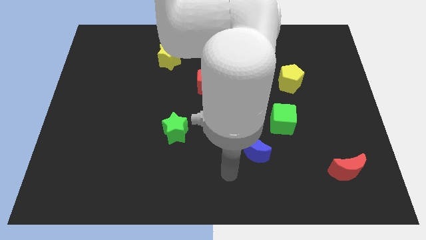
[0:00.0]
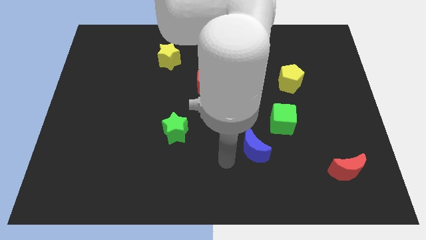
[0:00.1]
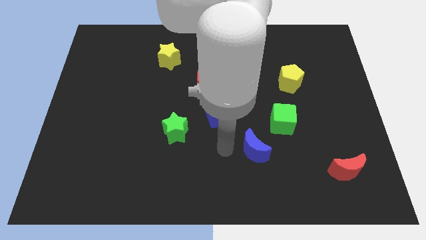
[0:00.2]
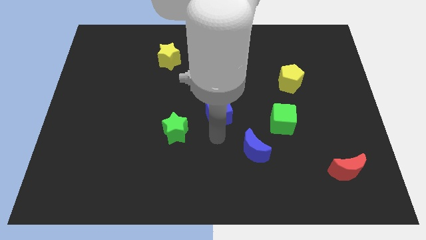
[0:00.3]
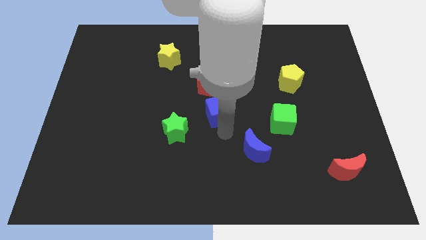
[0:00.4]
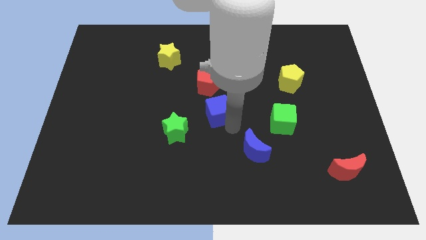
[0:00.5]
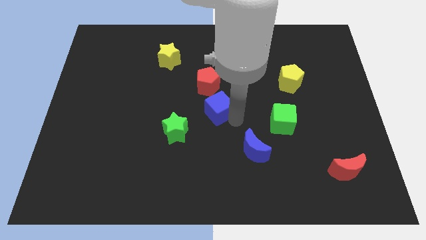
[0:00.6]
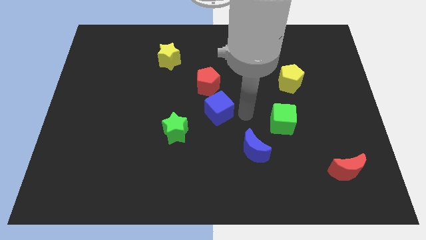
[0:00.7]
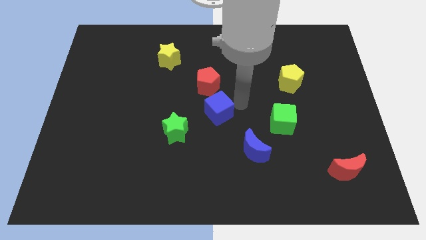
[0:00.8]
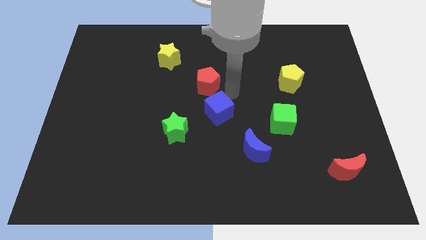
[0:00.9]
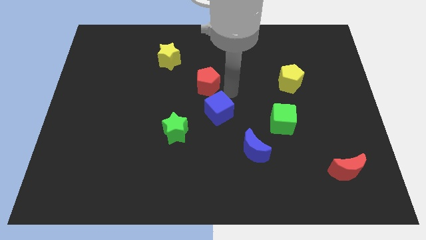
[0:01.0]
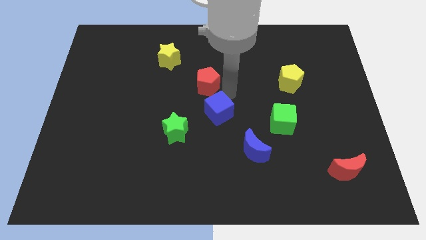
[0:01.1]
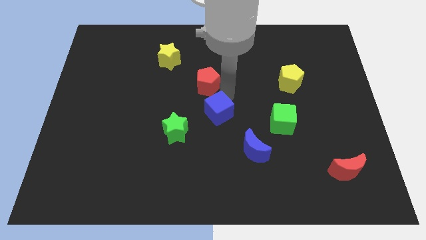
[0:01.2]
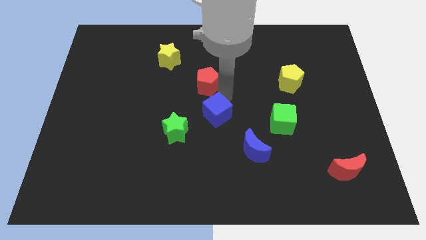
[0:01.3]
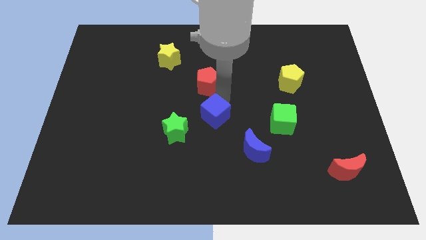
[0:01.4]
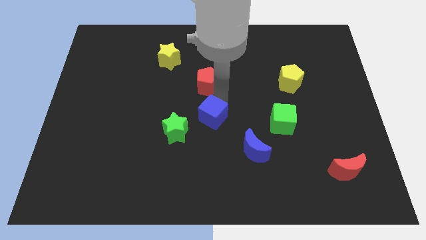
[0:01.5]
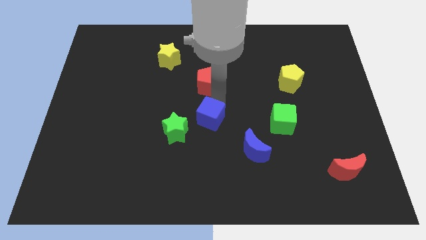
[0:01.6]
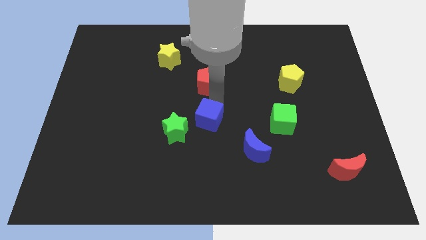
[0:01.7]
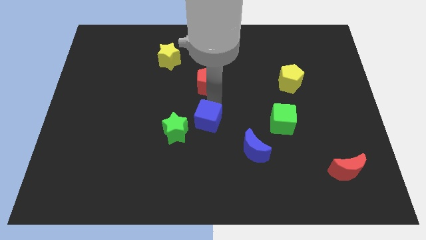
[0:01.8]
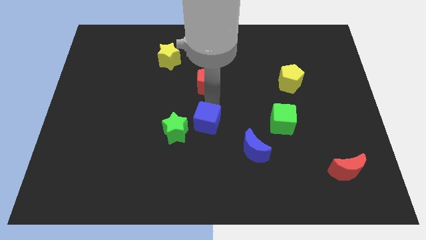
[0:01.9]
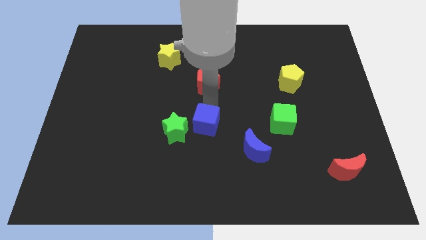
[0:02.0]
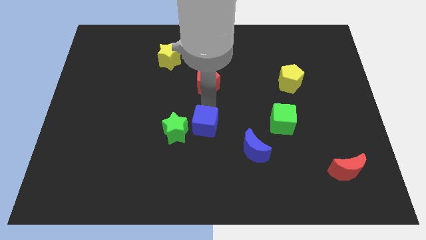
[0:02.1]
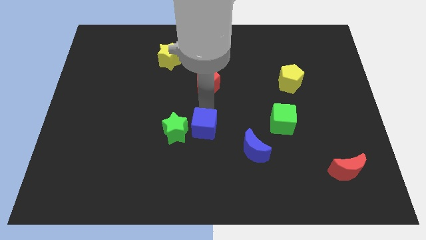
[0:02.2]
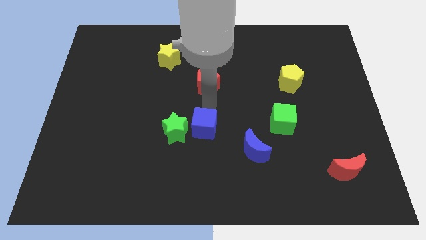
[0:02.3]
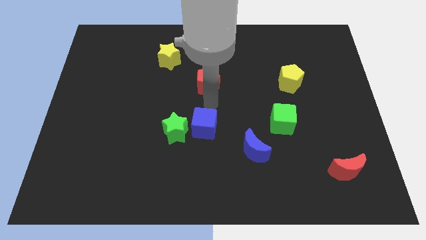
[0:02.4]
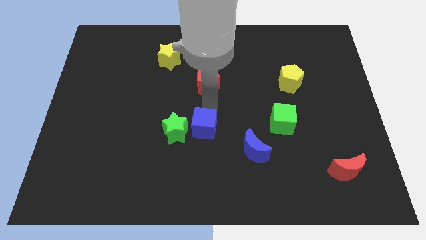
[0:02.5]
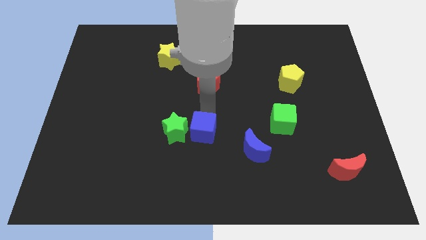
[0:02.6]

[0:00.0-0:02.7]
slide the blue cube diagonally down and to the right of the green star

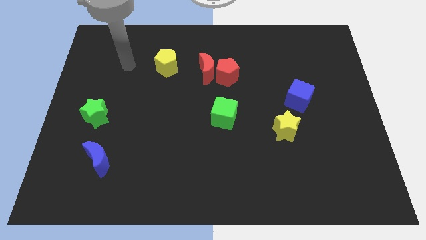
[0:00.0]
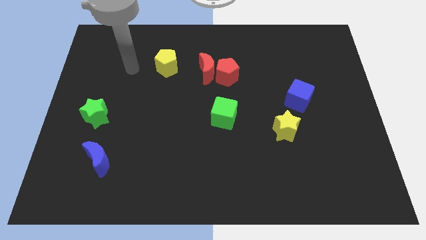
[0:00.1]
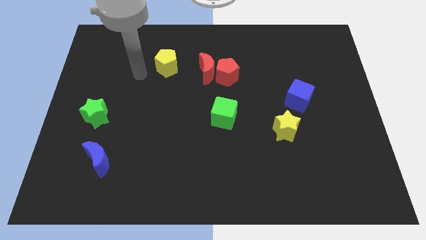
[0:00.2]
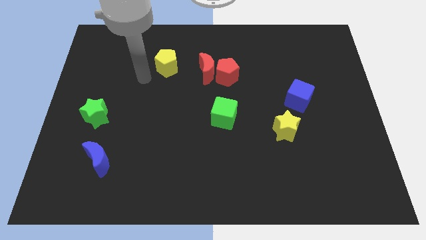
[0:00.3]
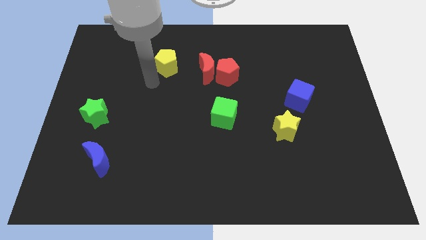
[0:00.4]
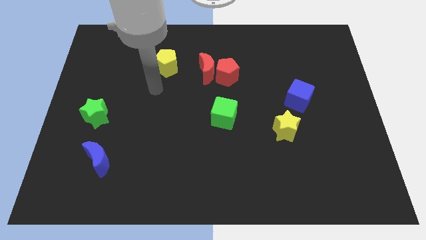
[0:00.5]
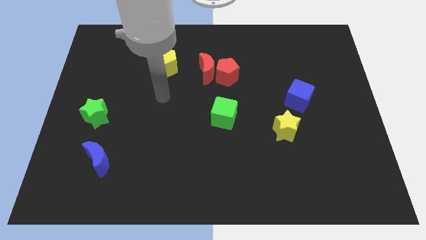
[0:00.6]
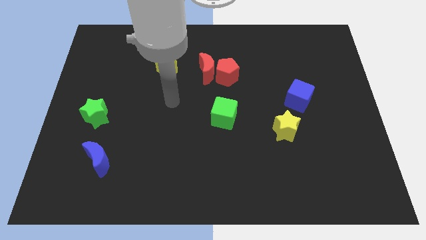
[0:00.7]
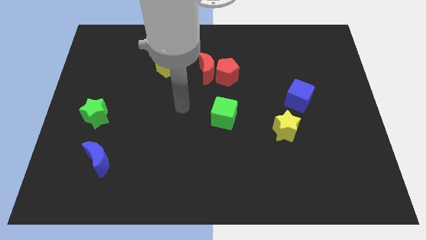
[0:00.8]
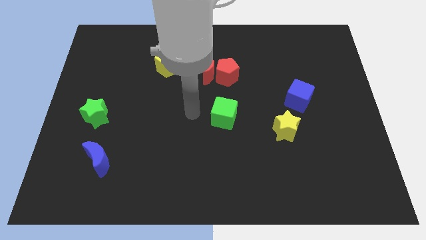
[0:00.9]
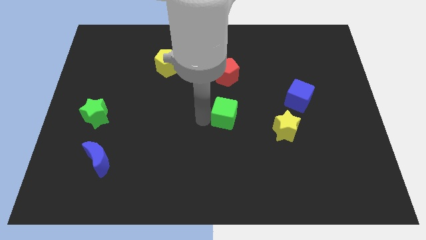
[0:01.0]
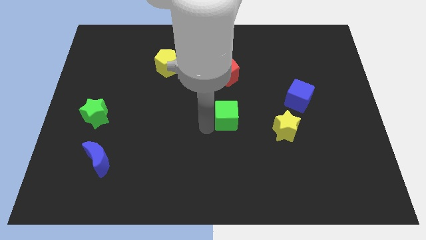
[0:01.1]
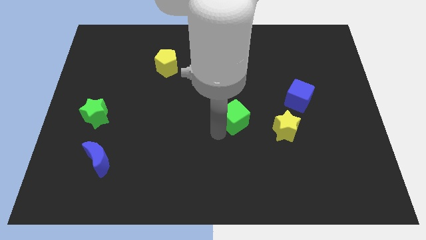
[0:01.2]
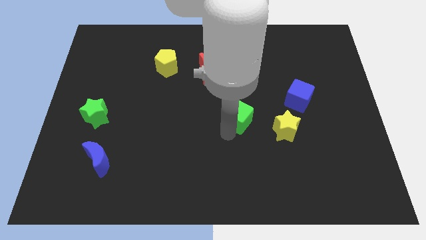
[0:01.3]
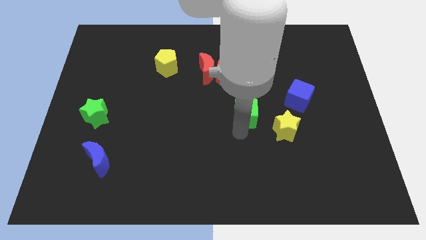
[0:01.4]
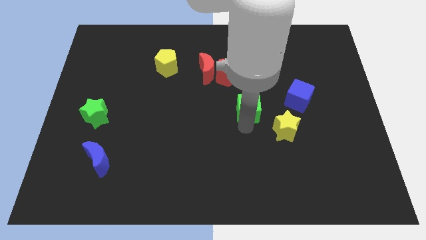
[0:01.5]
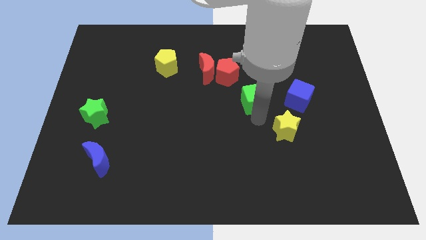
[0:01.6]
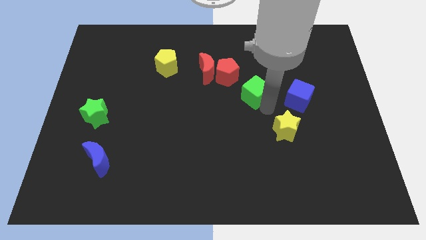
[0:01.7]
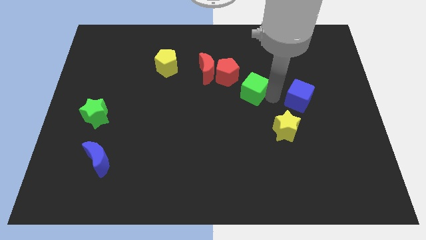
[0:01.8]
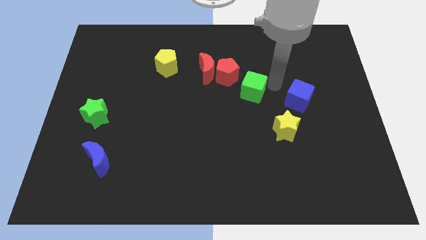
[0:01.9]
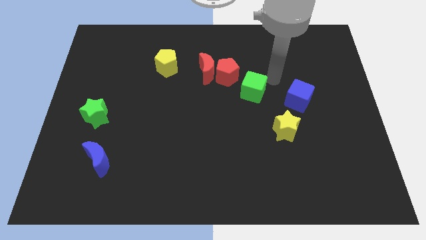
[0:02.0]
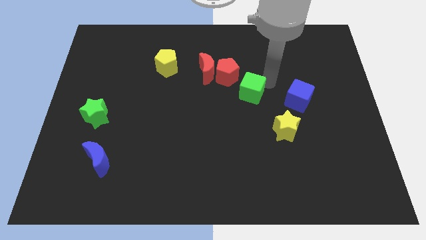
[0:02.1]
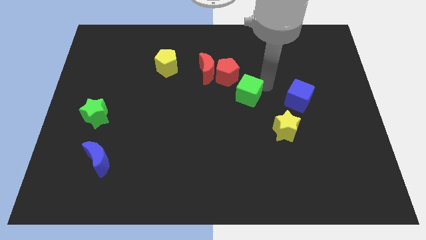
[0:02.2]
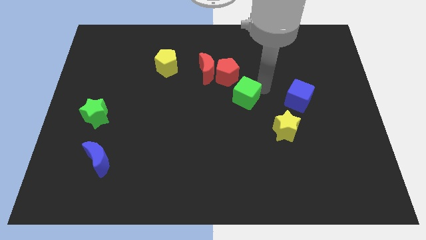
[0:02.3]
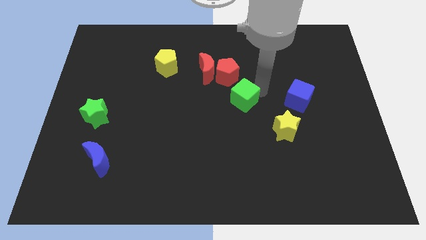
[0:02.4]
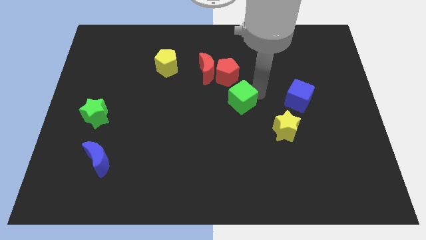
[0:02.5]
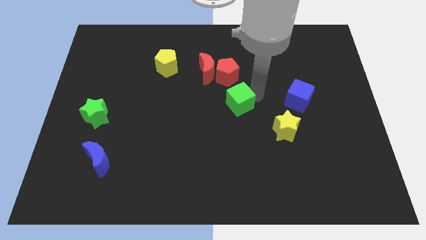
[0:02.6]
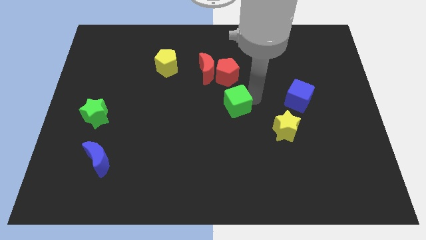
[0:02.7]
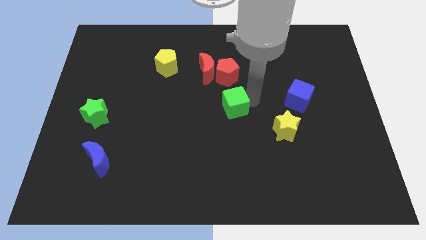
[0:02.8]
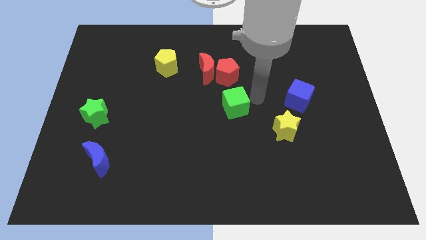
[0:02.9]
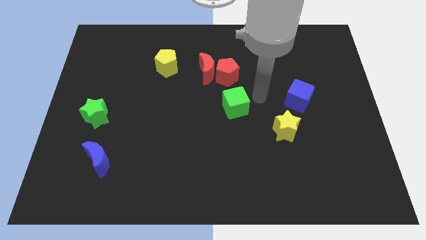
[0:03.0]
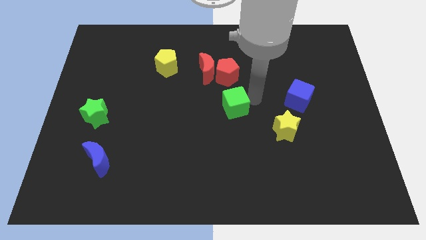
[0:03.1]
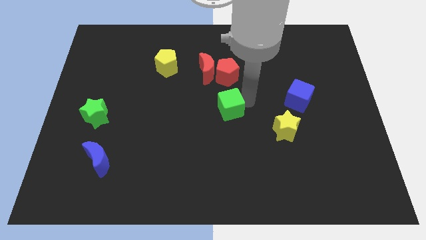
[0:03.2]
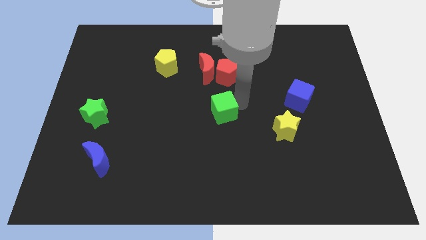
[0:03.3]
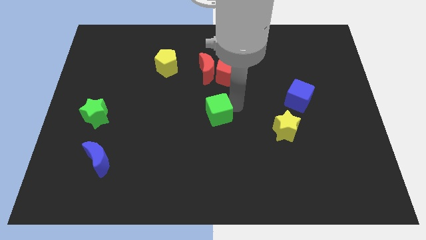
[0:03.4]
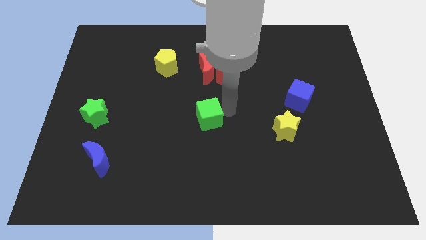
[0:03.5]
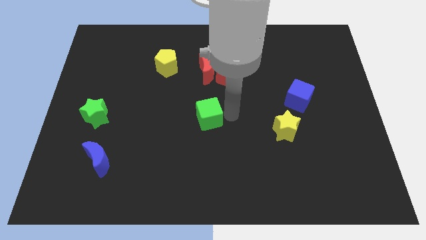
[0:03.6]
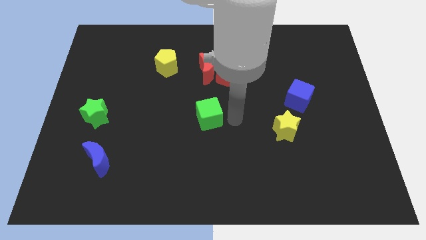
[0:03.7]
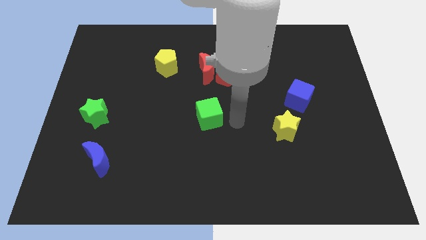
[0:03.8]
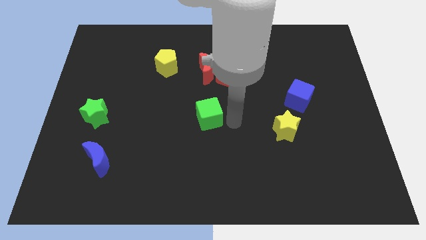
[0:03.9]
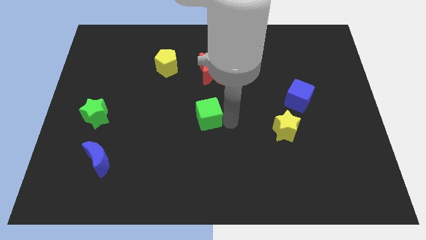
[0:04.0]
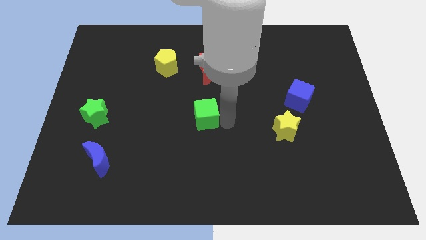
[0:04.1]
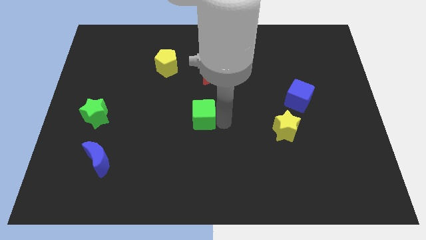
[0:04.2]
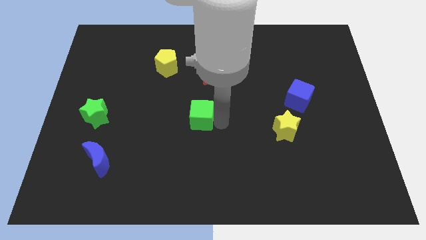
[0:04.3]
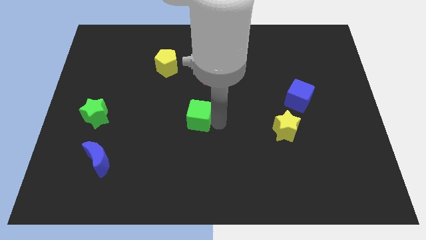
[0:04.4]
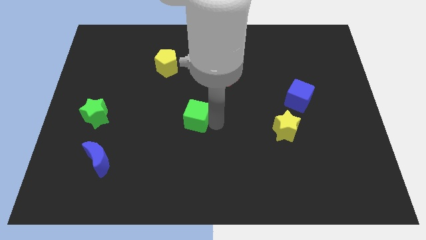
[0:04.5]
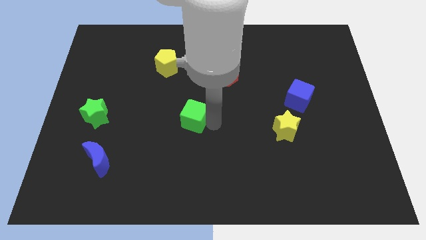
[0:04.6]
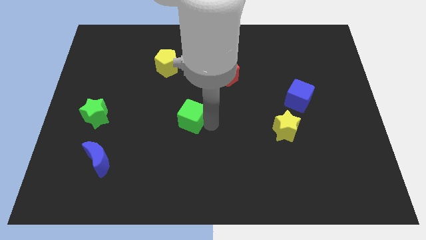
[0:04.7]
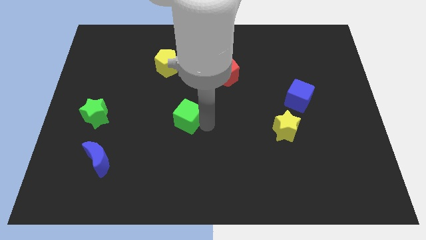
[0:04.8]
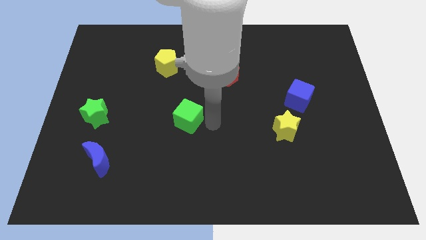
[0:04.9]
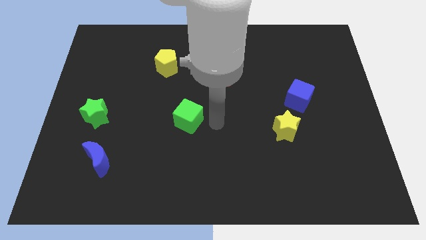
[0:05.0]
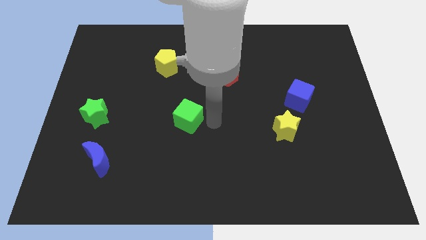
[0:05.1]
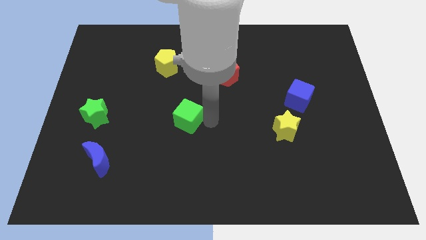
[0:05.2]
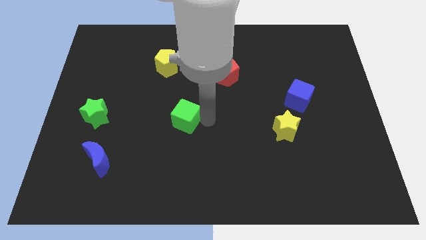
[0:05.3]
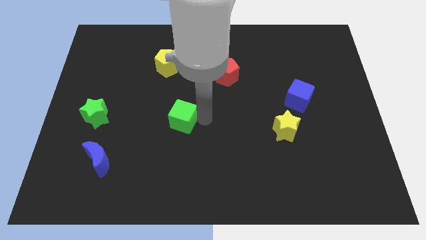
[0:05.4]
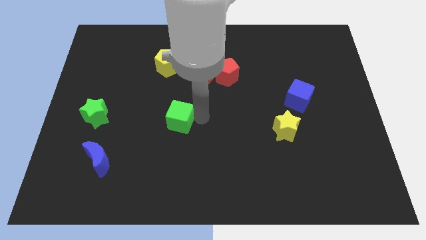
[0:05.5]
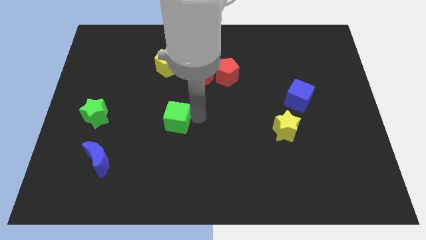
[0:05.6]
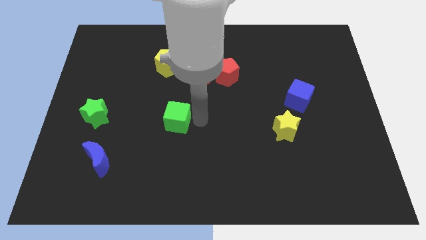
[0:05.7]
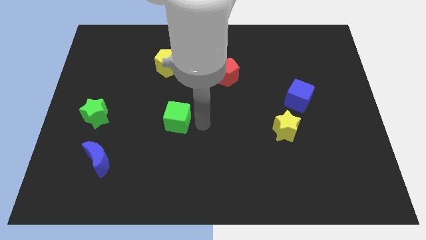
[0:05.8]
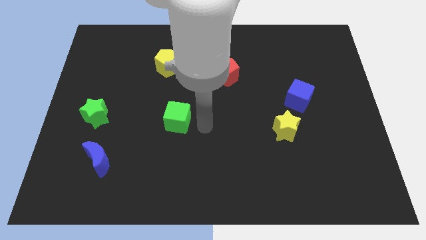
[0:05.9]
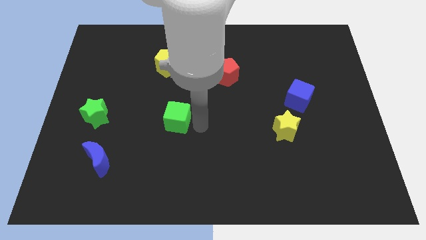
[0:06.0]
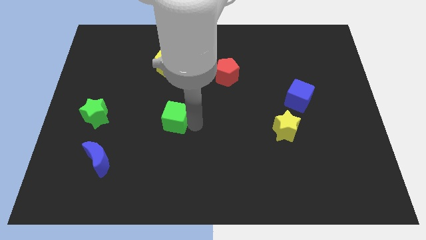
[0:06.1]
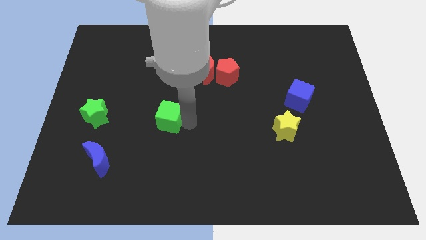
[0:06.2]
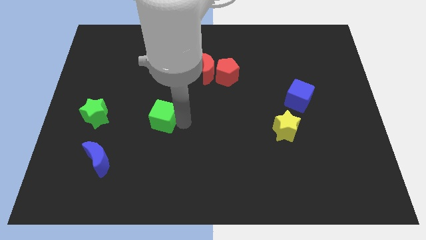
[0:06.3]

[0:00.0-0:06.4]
put the green cube just right of the green star
